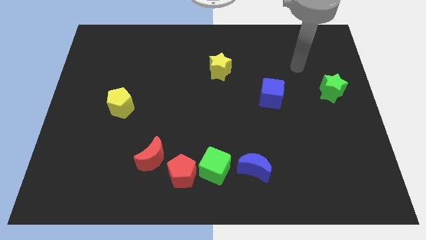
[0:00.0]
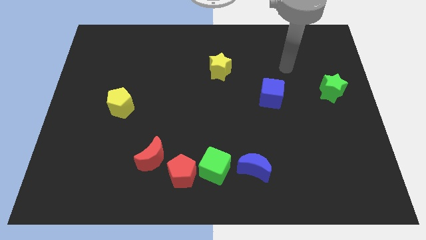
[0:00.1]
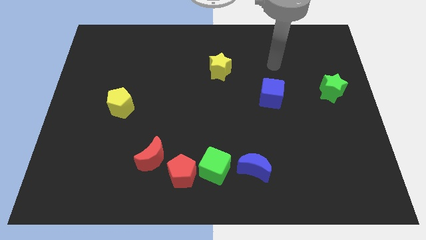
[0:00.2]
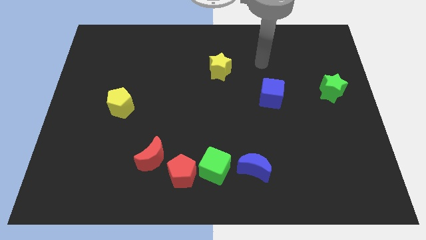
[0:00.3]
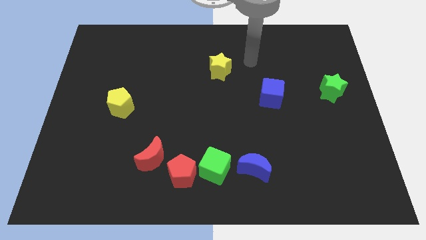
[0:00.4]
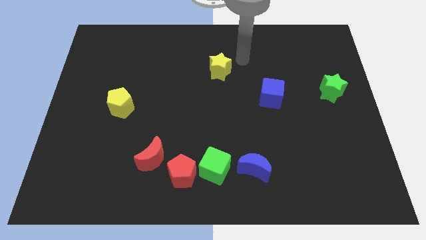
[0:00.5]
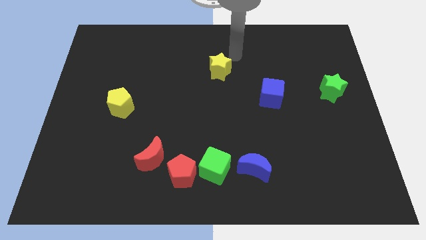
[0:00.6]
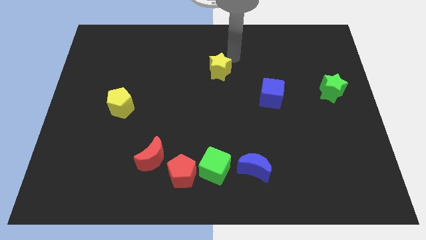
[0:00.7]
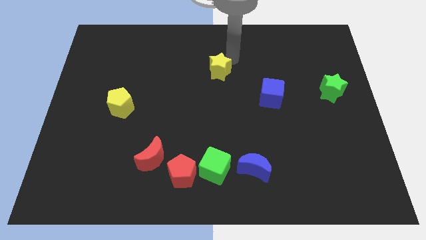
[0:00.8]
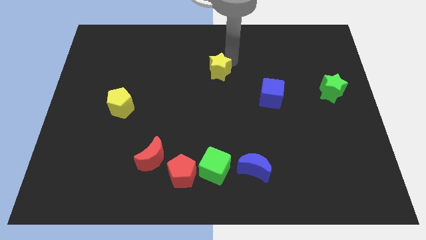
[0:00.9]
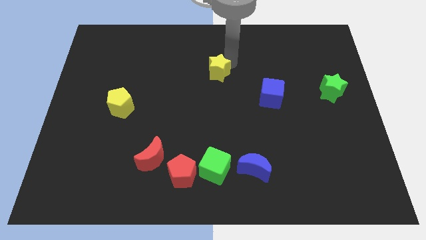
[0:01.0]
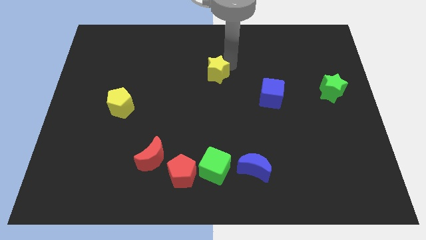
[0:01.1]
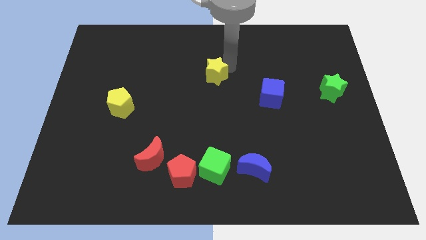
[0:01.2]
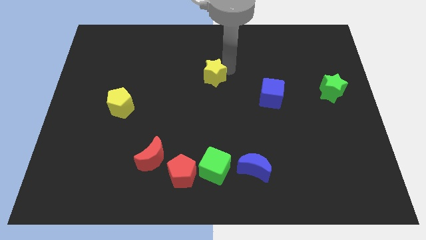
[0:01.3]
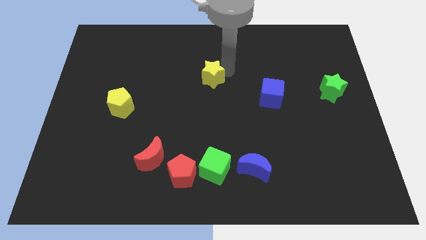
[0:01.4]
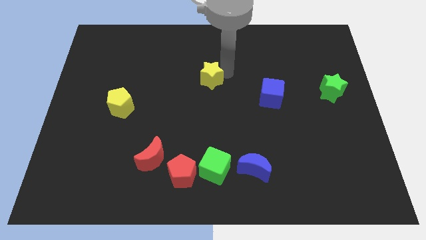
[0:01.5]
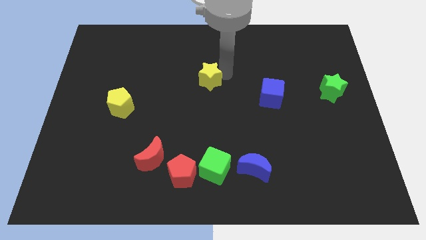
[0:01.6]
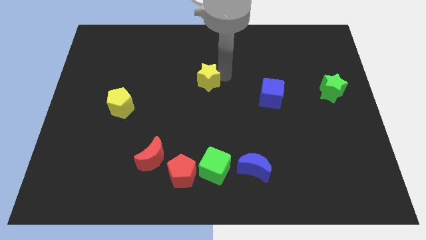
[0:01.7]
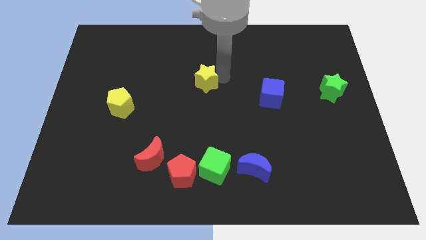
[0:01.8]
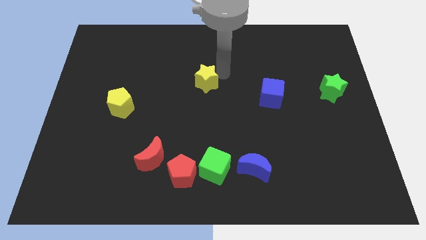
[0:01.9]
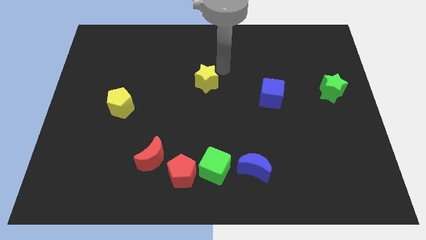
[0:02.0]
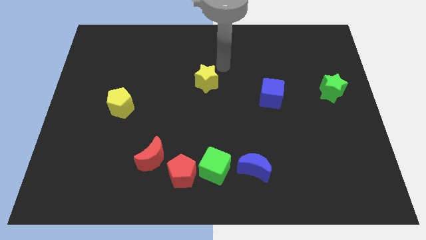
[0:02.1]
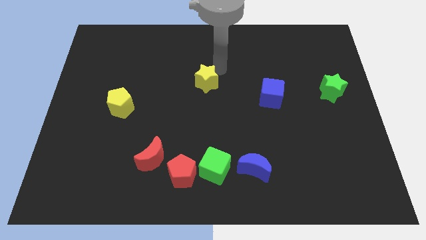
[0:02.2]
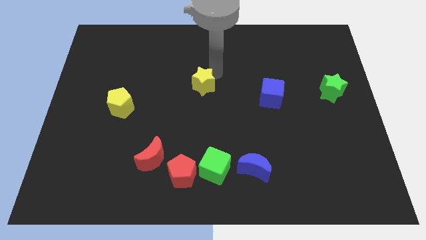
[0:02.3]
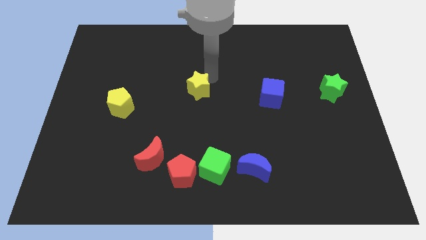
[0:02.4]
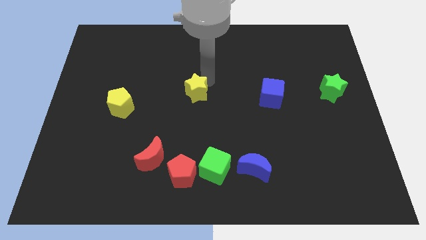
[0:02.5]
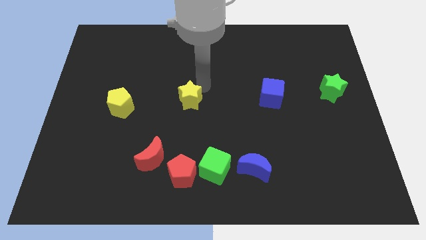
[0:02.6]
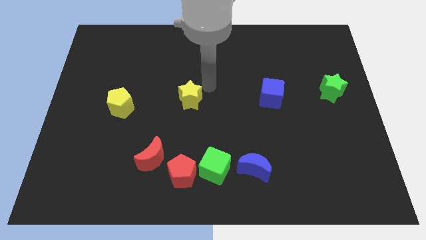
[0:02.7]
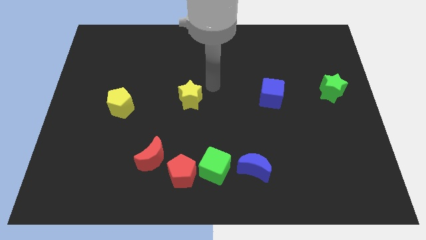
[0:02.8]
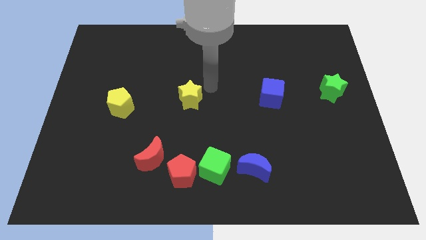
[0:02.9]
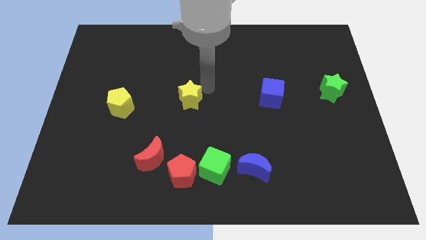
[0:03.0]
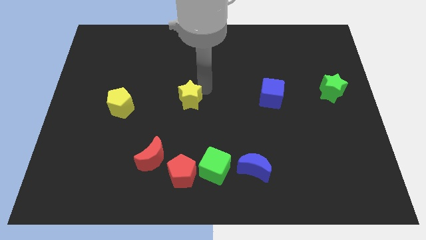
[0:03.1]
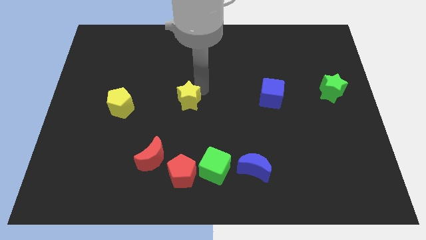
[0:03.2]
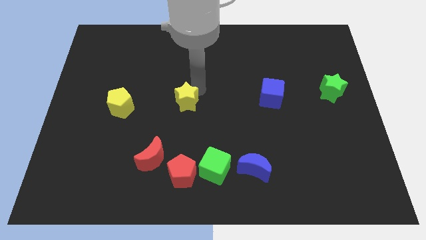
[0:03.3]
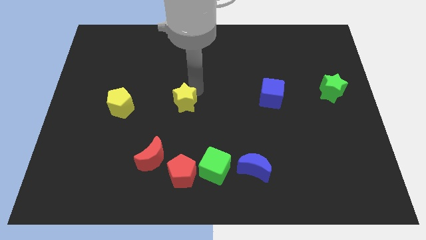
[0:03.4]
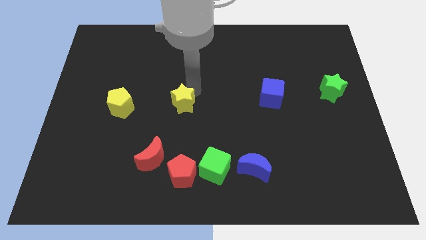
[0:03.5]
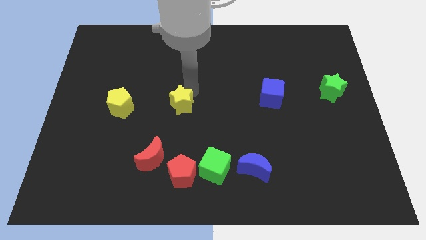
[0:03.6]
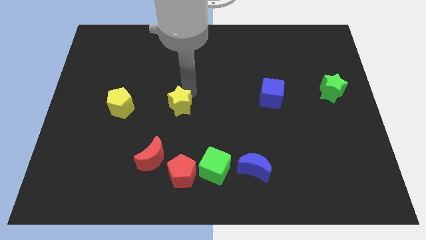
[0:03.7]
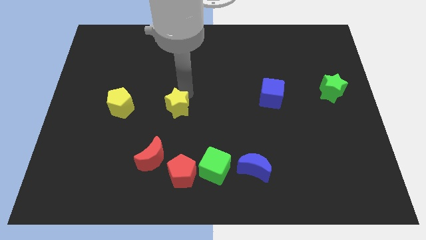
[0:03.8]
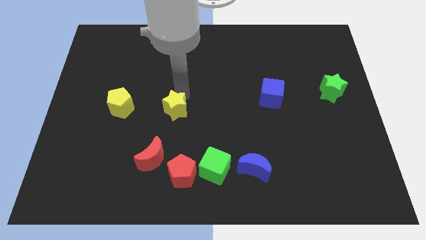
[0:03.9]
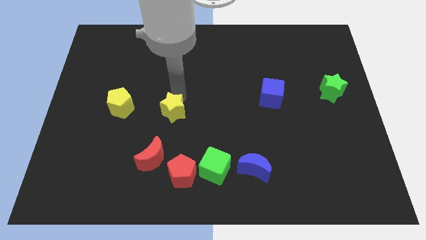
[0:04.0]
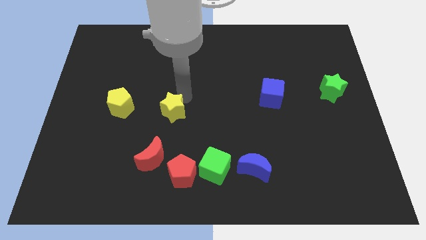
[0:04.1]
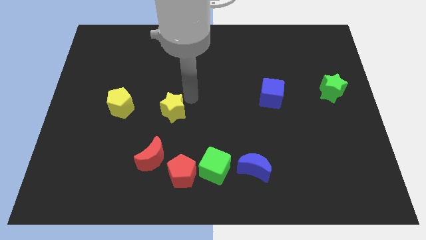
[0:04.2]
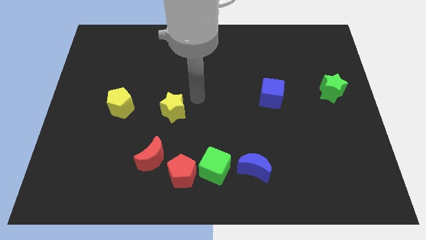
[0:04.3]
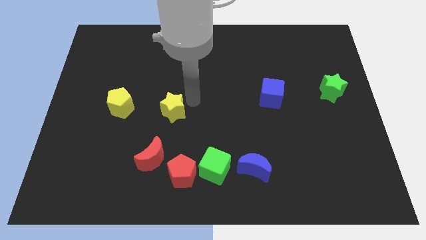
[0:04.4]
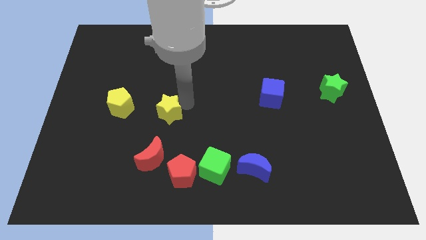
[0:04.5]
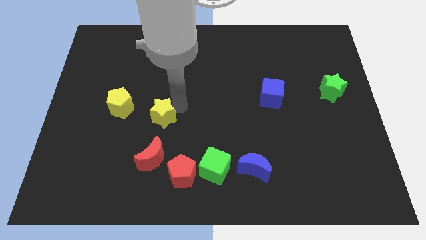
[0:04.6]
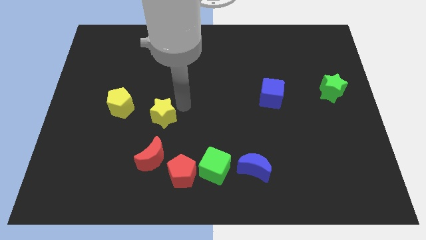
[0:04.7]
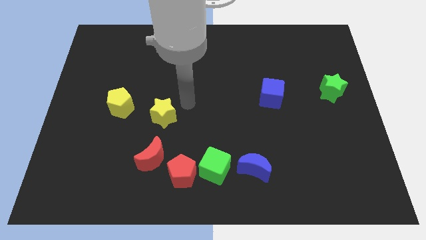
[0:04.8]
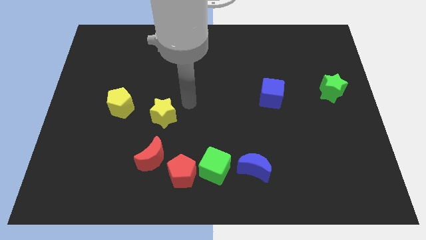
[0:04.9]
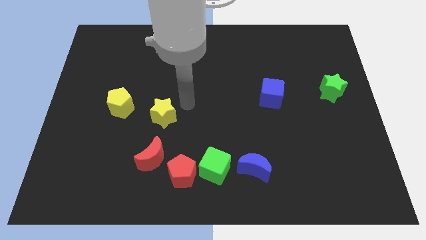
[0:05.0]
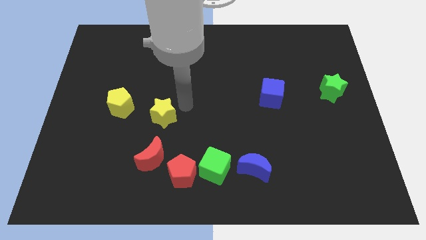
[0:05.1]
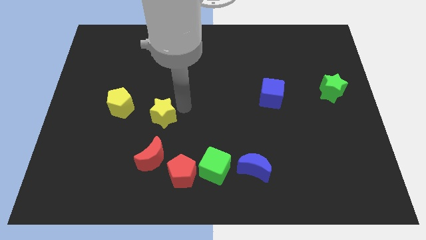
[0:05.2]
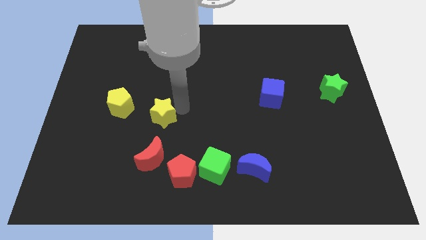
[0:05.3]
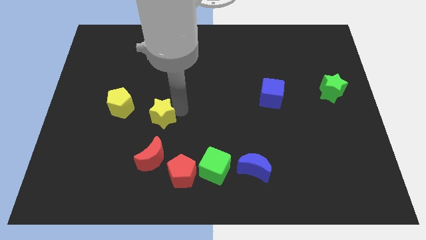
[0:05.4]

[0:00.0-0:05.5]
move the yellow star diagonally down and left

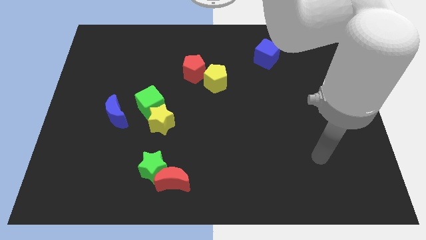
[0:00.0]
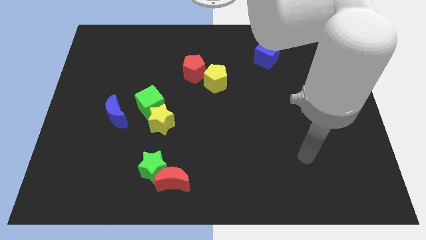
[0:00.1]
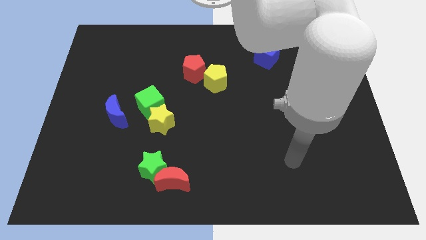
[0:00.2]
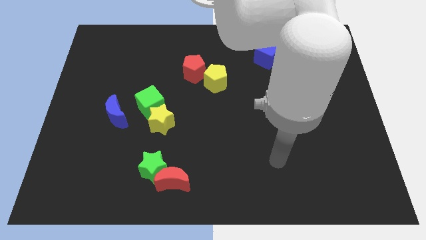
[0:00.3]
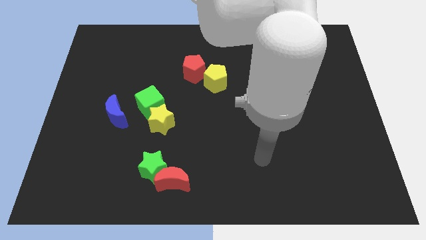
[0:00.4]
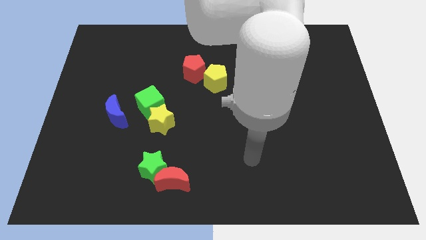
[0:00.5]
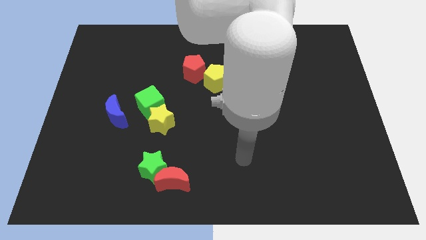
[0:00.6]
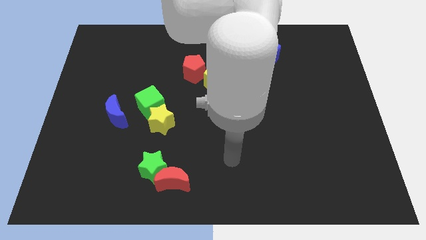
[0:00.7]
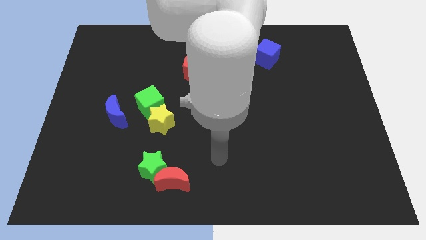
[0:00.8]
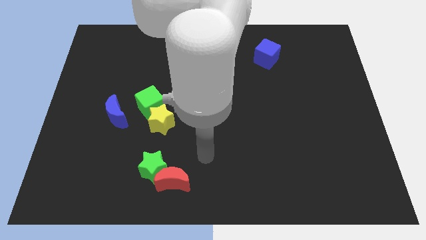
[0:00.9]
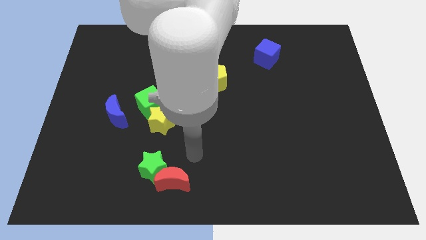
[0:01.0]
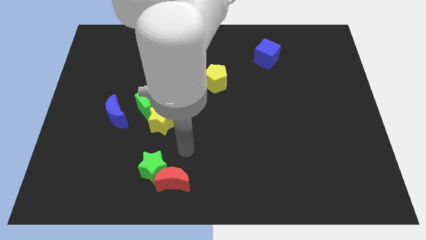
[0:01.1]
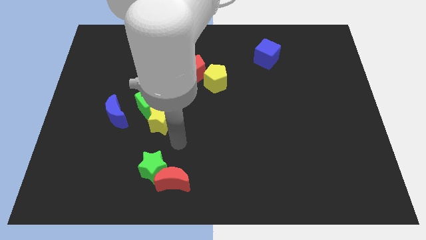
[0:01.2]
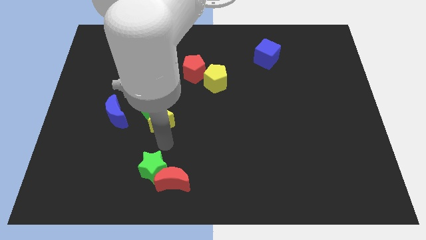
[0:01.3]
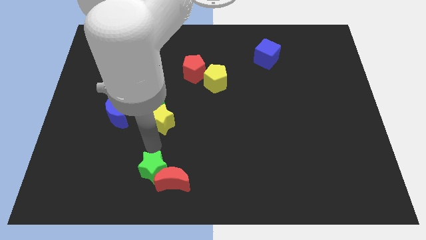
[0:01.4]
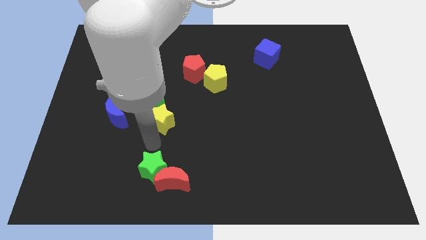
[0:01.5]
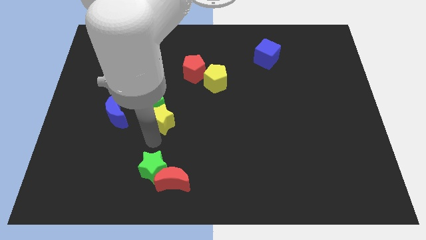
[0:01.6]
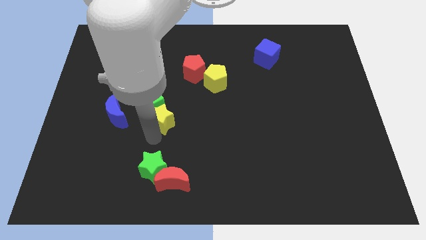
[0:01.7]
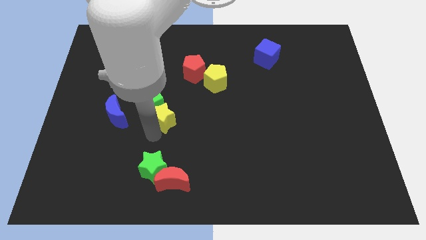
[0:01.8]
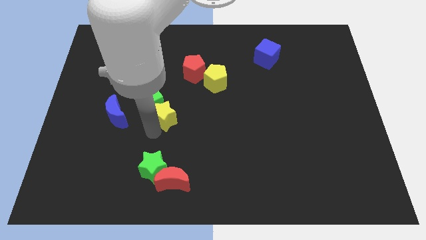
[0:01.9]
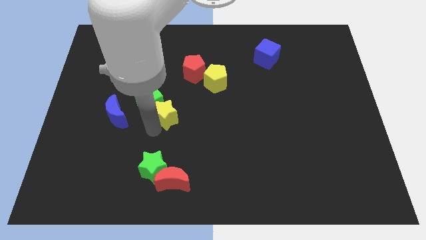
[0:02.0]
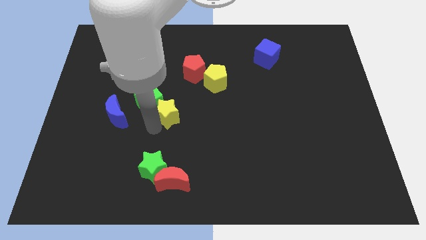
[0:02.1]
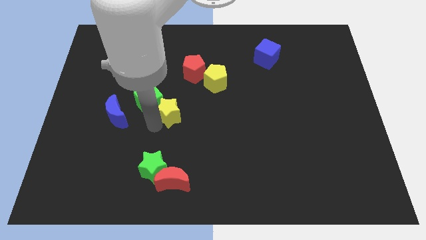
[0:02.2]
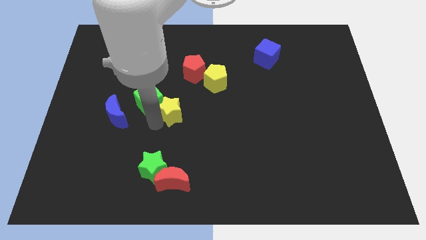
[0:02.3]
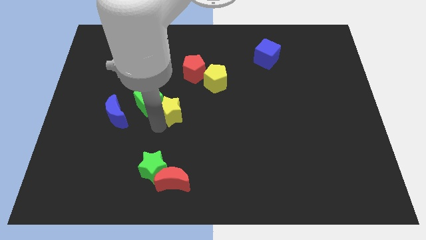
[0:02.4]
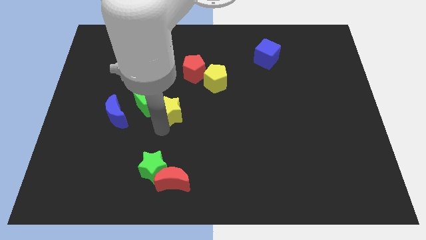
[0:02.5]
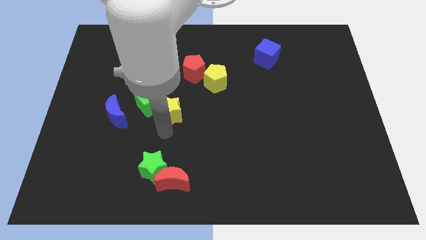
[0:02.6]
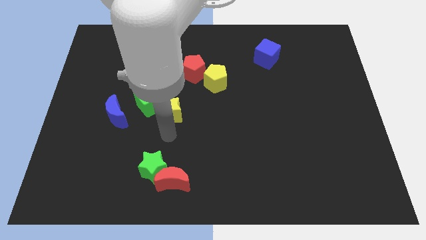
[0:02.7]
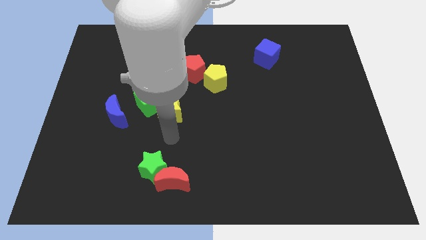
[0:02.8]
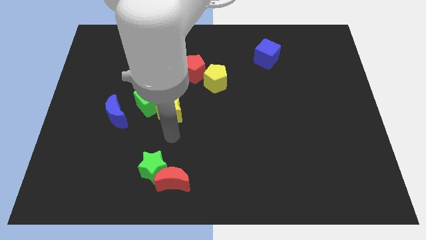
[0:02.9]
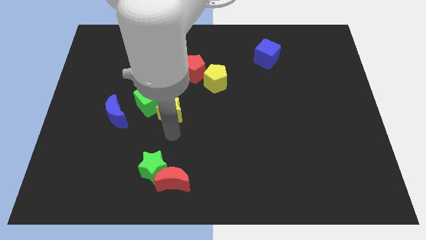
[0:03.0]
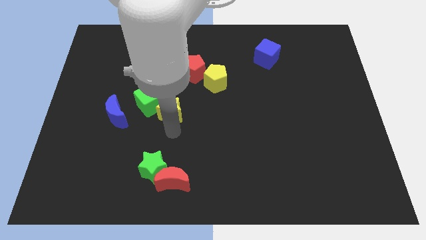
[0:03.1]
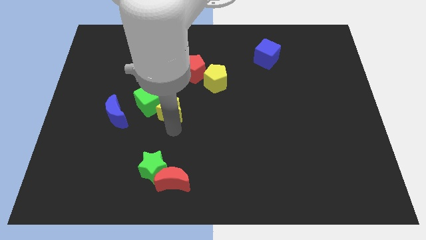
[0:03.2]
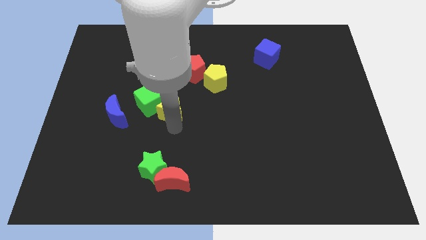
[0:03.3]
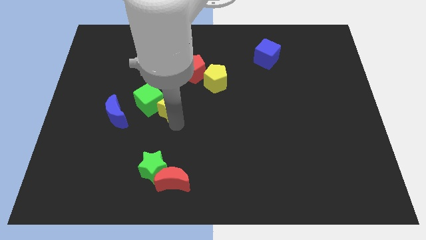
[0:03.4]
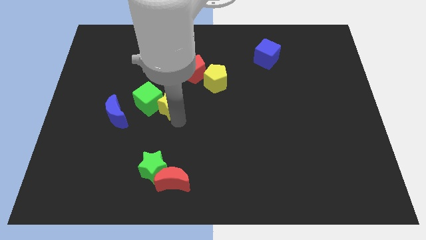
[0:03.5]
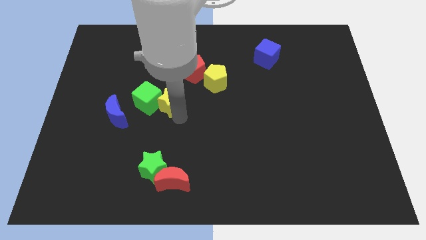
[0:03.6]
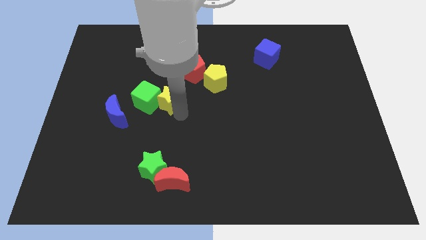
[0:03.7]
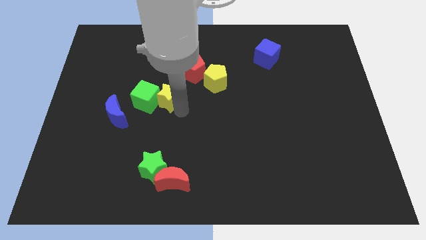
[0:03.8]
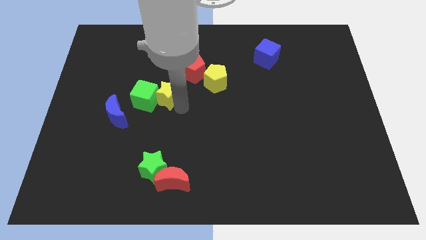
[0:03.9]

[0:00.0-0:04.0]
push the yellow star upwards a little
